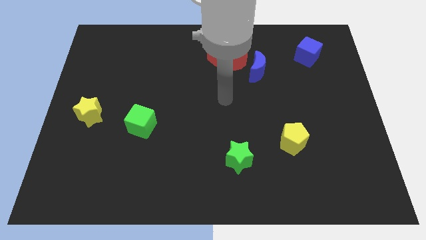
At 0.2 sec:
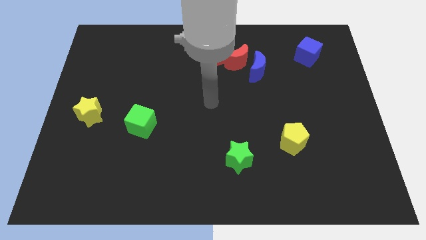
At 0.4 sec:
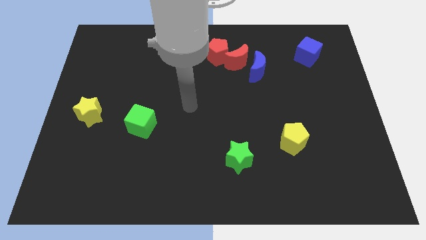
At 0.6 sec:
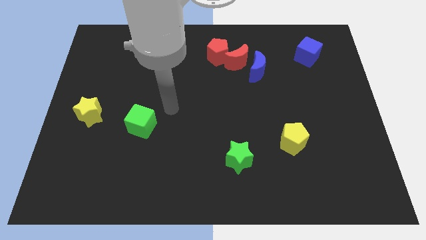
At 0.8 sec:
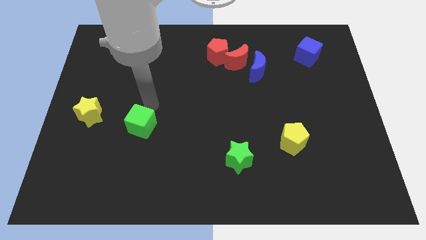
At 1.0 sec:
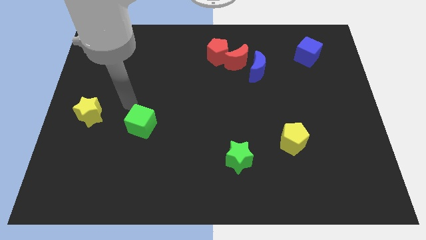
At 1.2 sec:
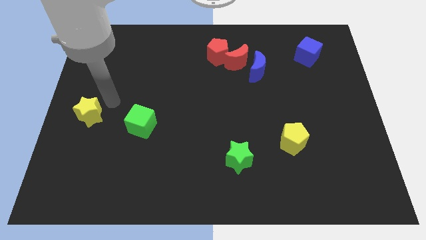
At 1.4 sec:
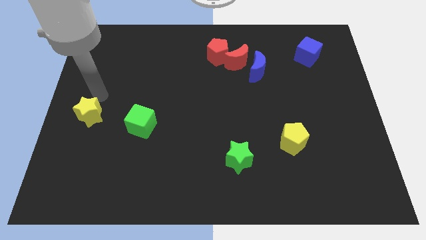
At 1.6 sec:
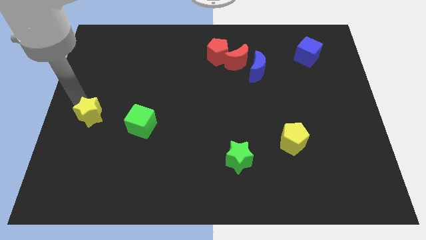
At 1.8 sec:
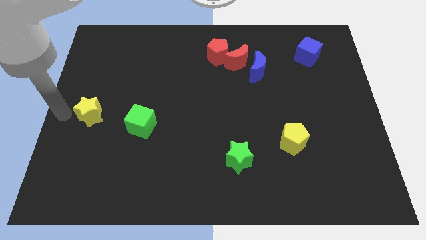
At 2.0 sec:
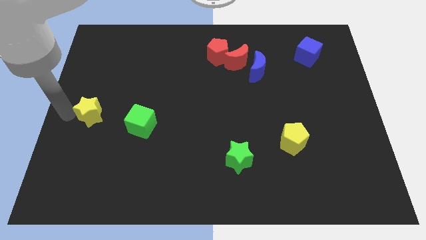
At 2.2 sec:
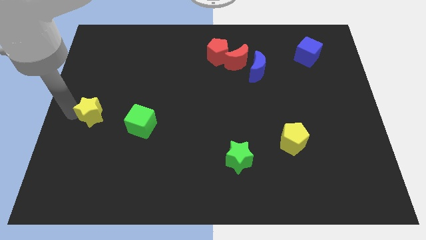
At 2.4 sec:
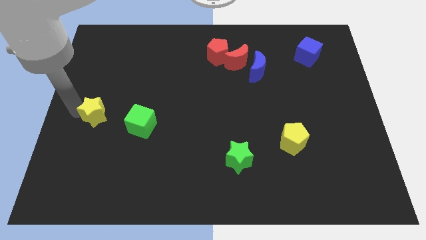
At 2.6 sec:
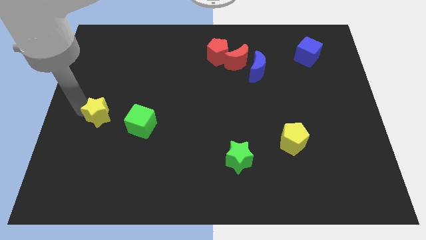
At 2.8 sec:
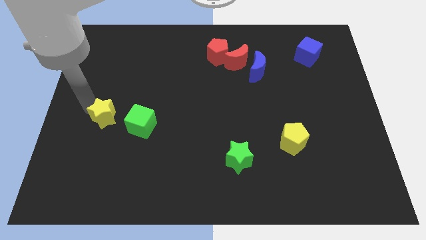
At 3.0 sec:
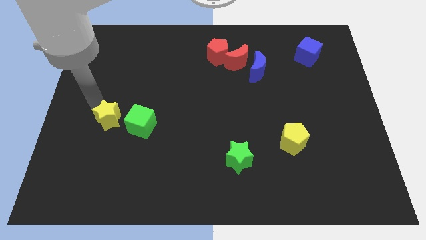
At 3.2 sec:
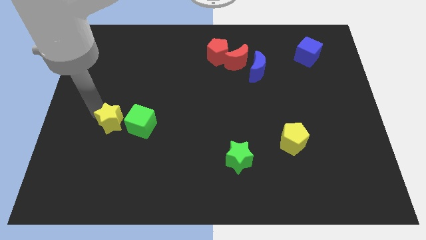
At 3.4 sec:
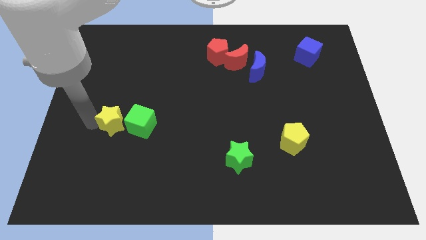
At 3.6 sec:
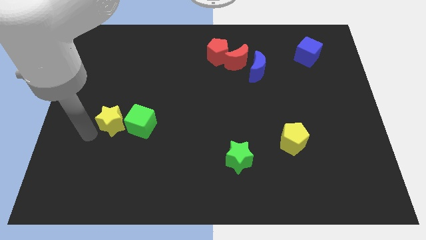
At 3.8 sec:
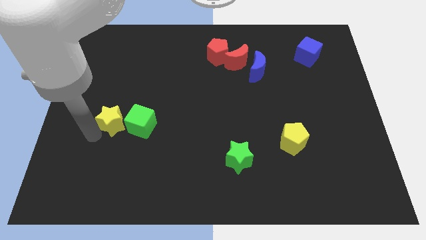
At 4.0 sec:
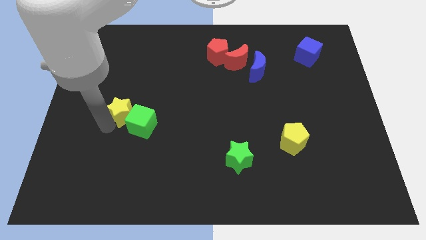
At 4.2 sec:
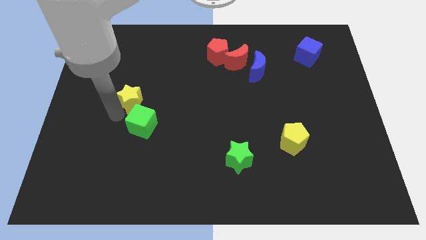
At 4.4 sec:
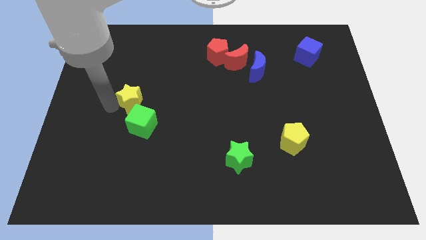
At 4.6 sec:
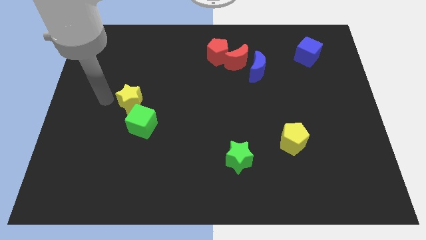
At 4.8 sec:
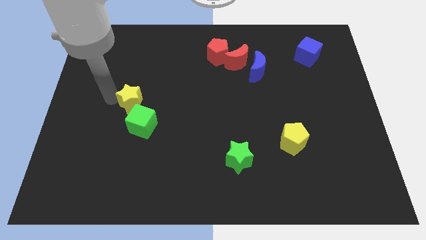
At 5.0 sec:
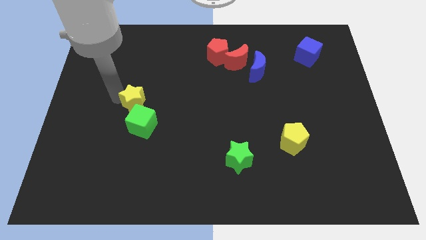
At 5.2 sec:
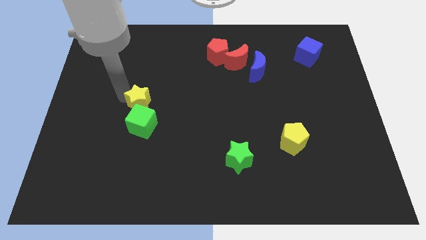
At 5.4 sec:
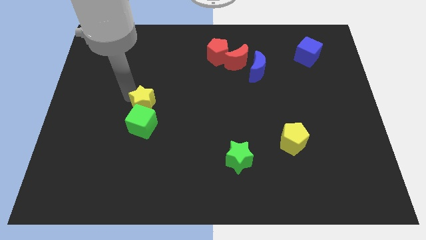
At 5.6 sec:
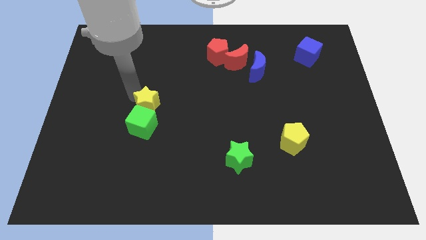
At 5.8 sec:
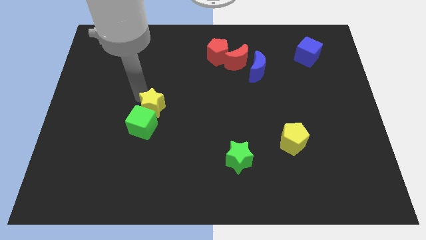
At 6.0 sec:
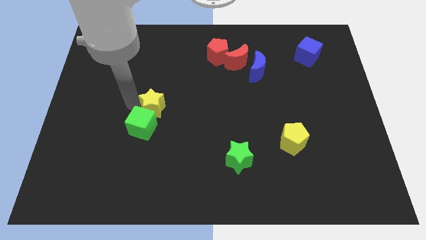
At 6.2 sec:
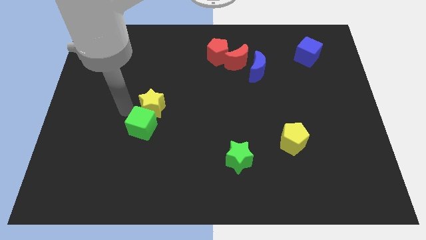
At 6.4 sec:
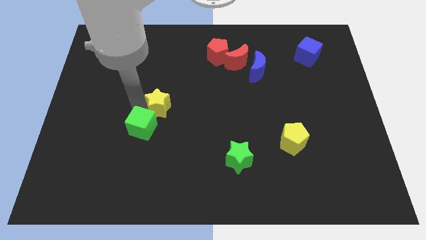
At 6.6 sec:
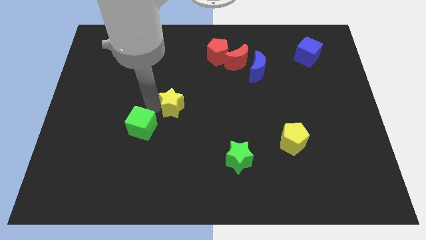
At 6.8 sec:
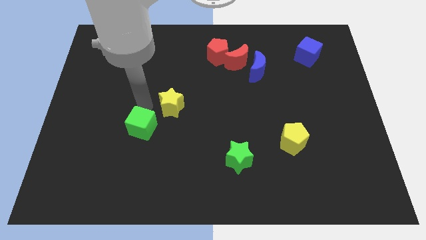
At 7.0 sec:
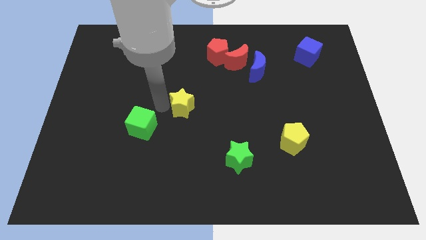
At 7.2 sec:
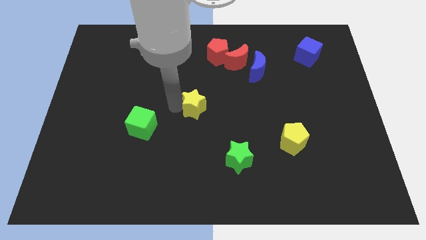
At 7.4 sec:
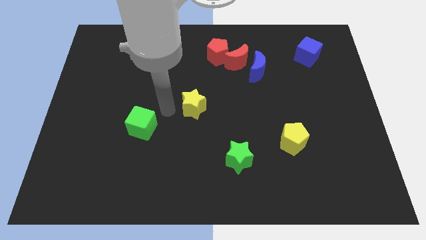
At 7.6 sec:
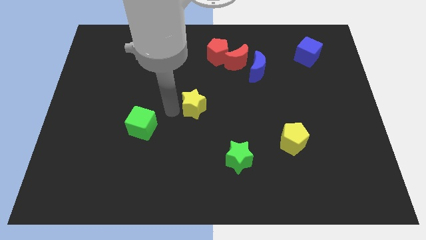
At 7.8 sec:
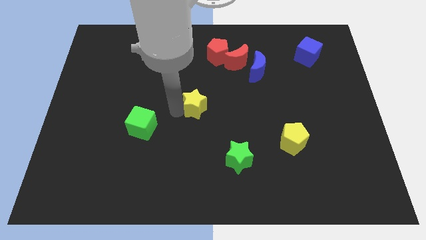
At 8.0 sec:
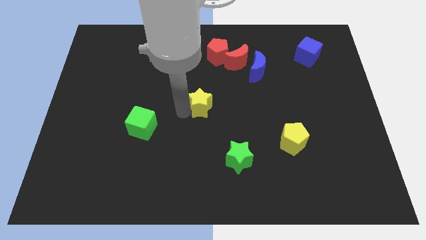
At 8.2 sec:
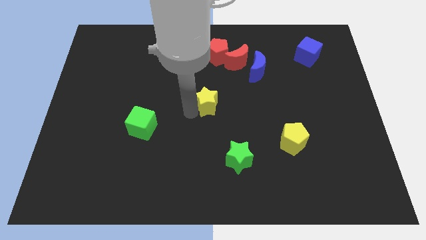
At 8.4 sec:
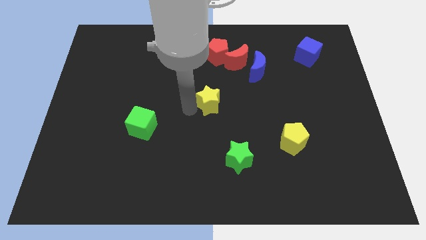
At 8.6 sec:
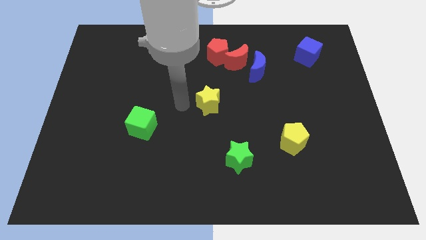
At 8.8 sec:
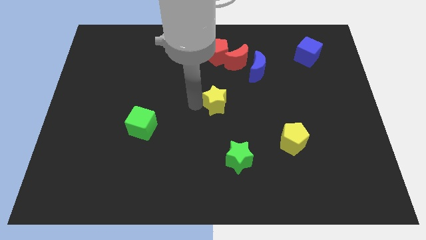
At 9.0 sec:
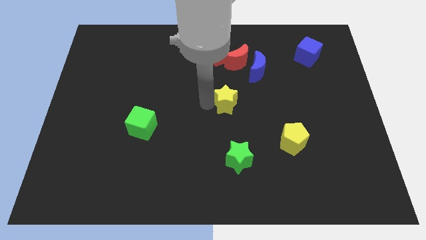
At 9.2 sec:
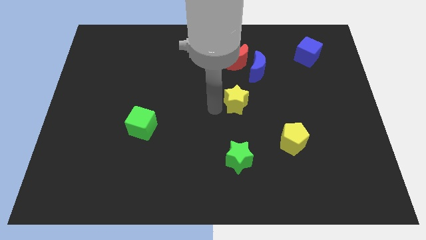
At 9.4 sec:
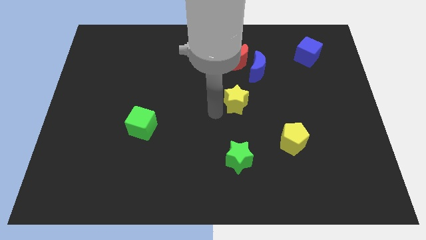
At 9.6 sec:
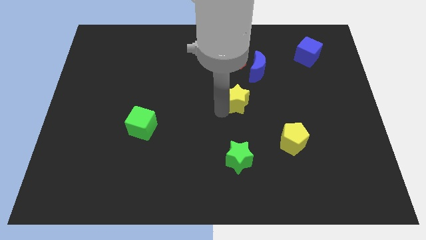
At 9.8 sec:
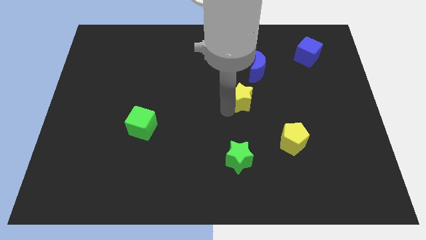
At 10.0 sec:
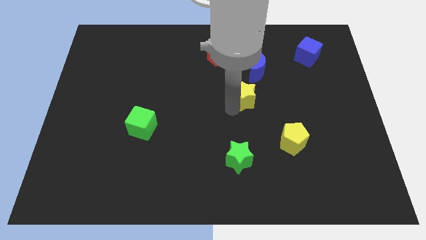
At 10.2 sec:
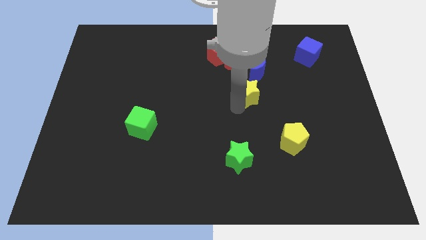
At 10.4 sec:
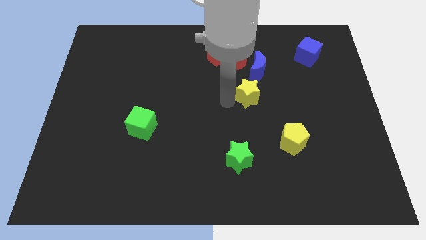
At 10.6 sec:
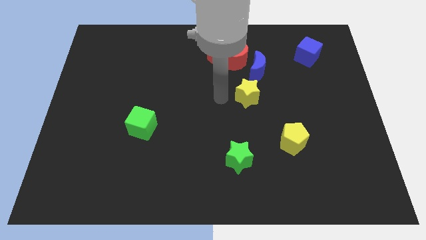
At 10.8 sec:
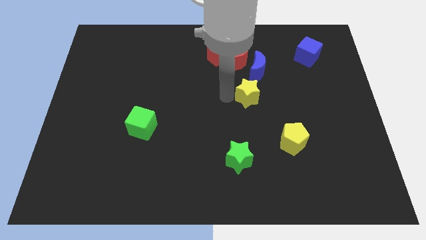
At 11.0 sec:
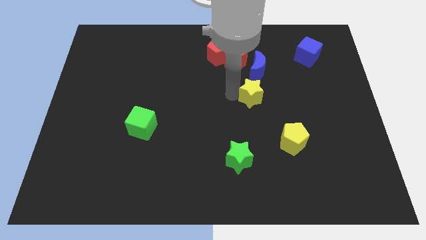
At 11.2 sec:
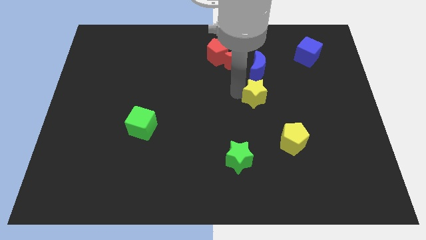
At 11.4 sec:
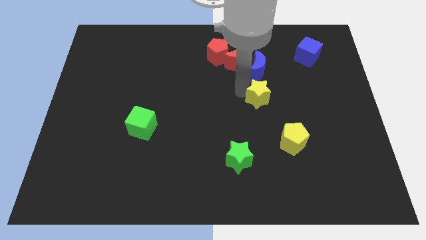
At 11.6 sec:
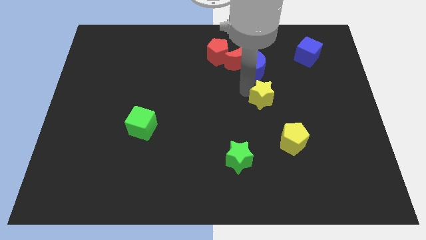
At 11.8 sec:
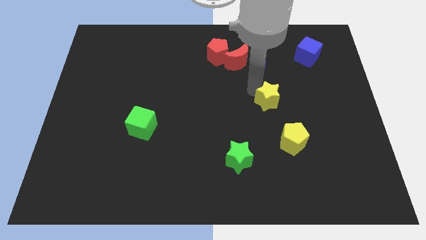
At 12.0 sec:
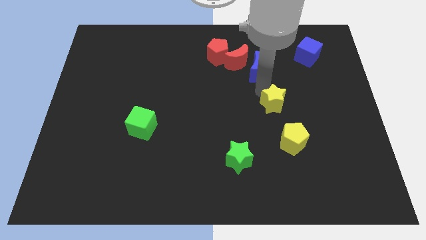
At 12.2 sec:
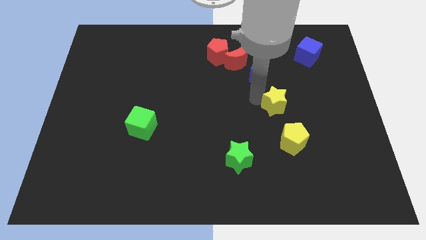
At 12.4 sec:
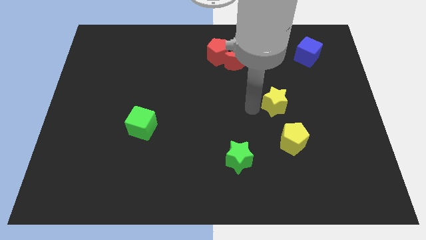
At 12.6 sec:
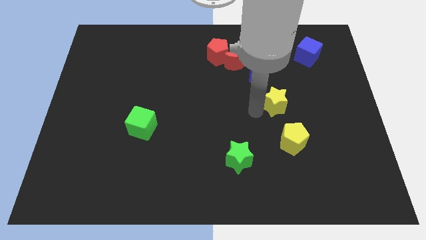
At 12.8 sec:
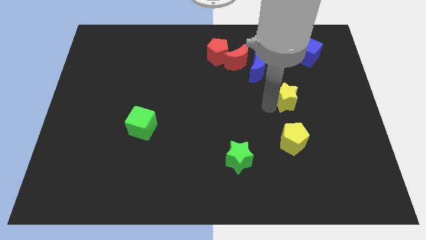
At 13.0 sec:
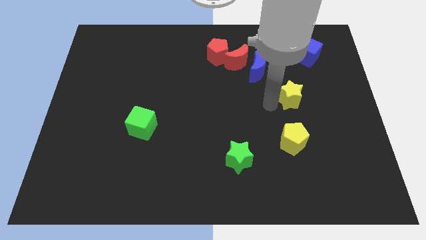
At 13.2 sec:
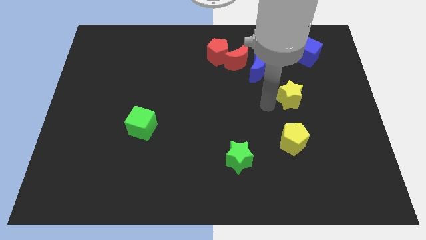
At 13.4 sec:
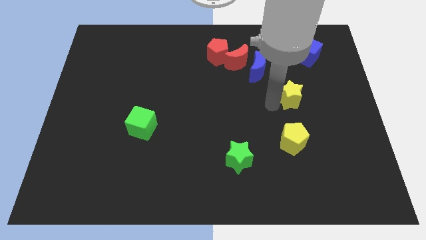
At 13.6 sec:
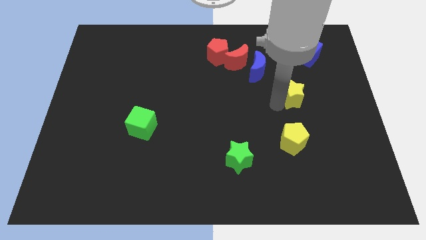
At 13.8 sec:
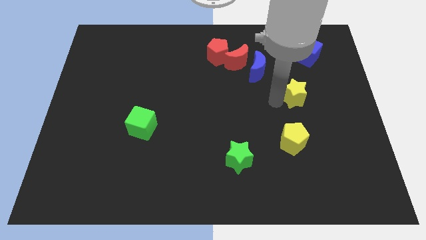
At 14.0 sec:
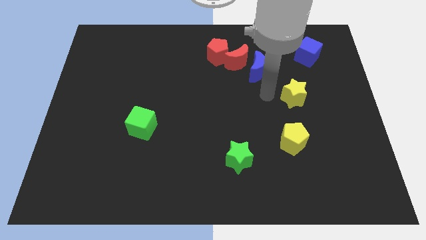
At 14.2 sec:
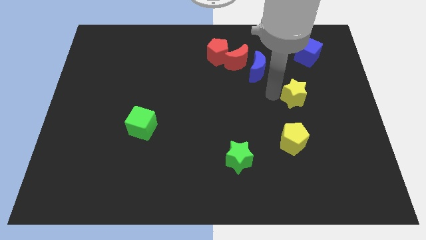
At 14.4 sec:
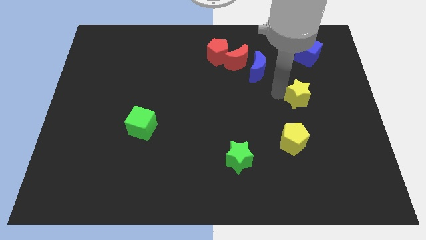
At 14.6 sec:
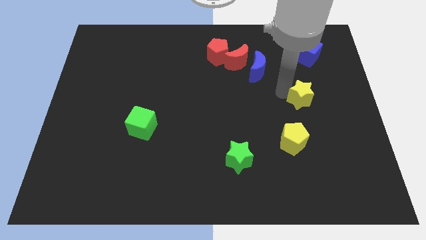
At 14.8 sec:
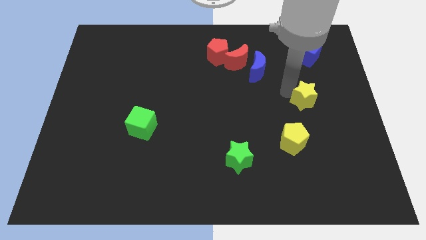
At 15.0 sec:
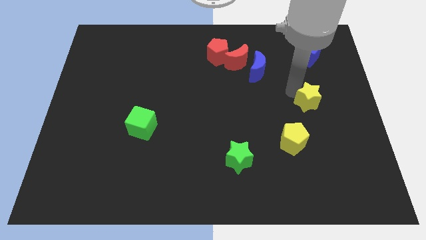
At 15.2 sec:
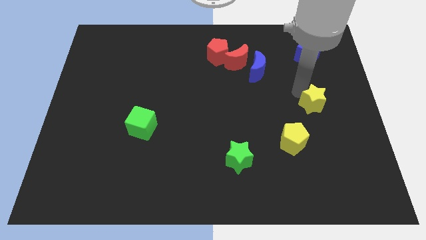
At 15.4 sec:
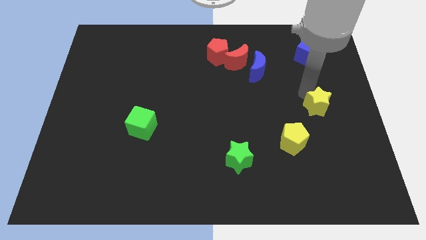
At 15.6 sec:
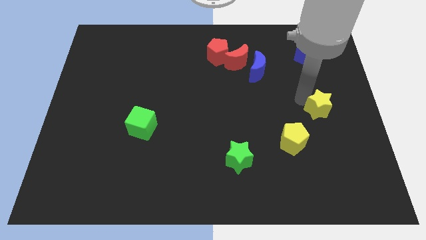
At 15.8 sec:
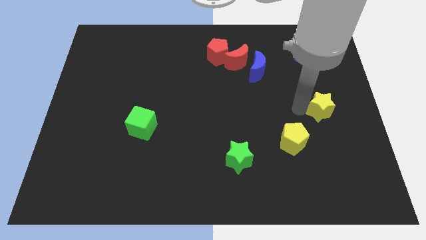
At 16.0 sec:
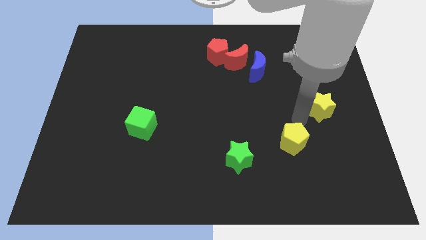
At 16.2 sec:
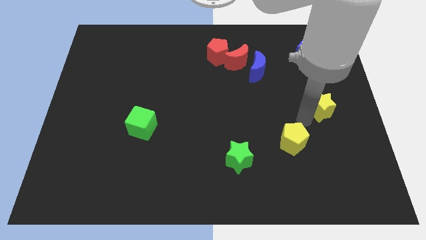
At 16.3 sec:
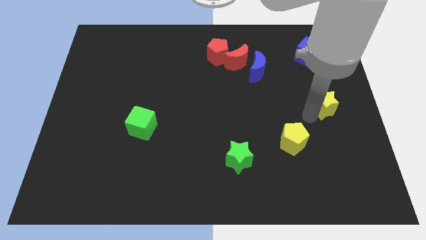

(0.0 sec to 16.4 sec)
put the yellow star to the center right
